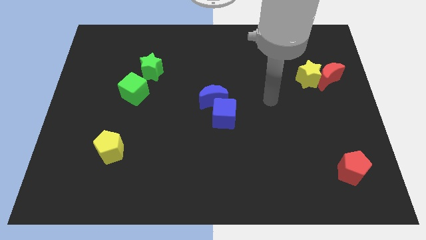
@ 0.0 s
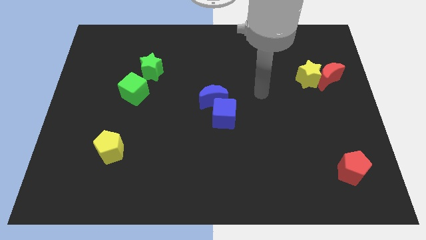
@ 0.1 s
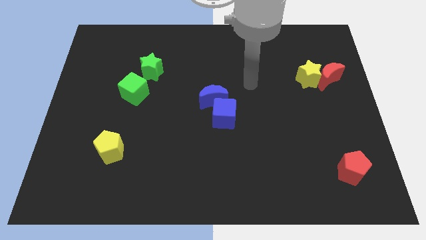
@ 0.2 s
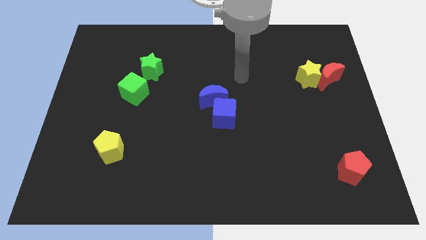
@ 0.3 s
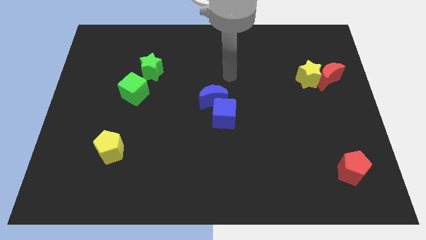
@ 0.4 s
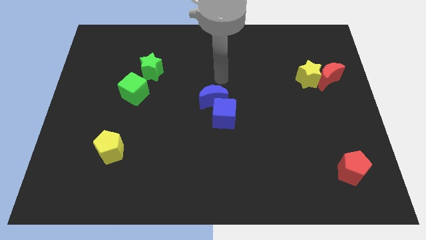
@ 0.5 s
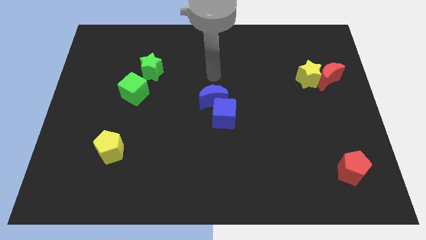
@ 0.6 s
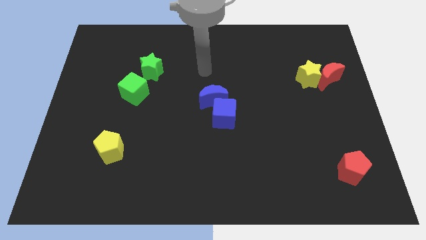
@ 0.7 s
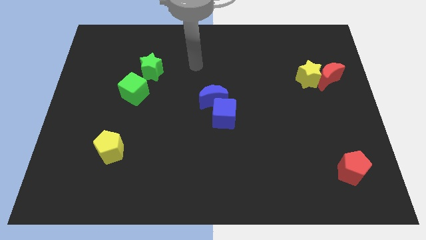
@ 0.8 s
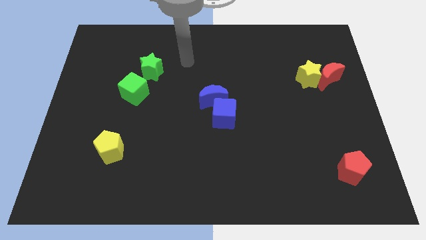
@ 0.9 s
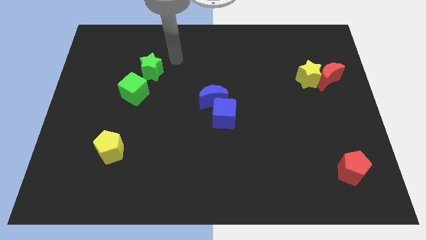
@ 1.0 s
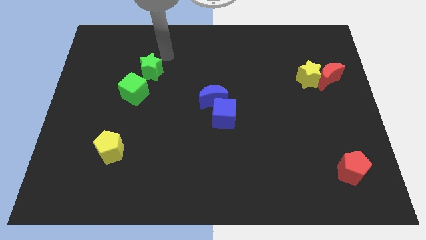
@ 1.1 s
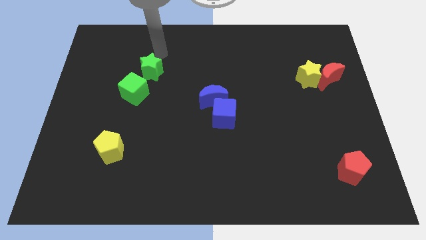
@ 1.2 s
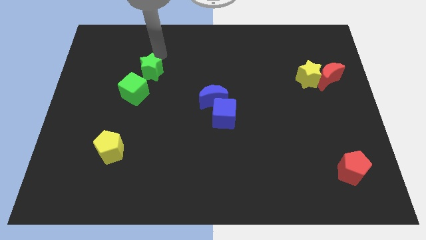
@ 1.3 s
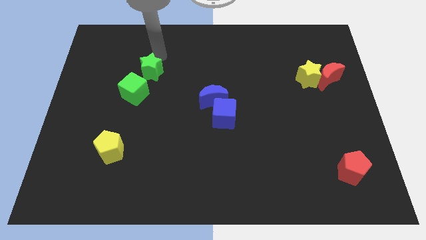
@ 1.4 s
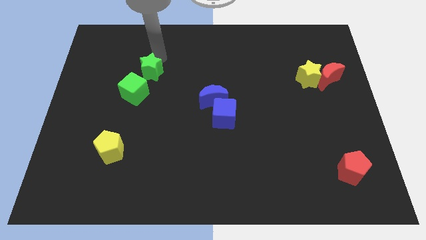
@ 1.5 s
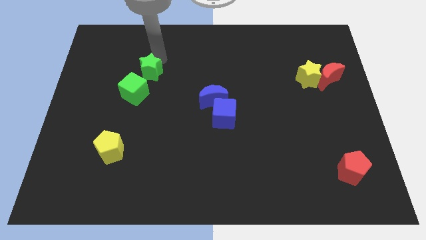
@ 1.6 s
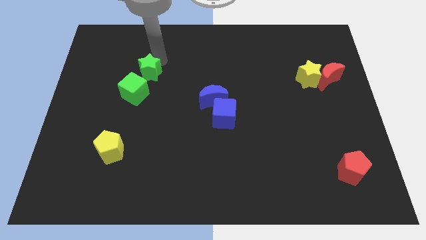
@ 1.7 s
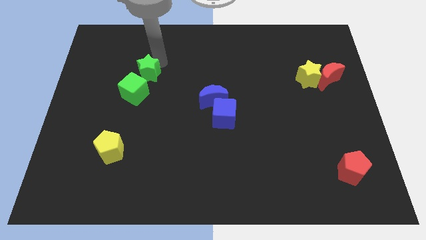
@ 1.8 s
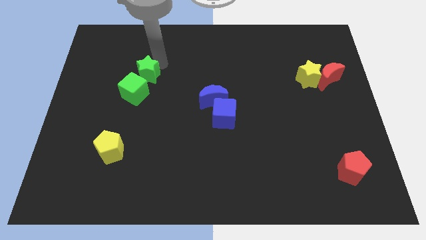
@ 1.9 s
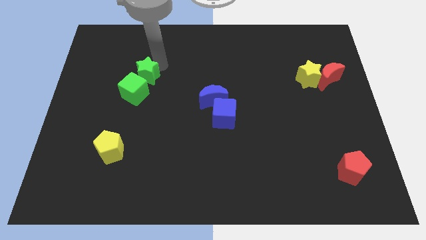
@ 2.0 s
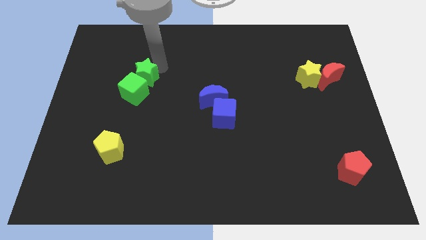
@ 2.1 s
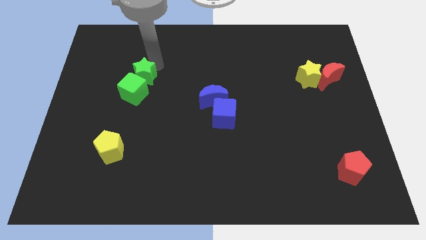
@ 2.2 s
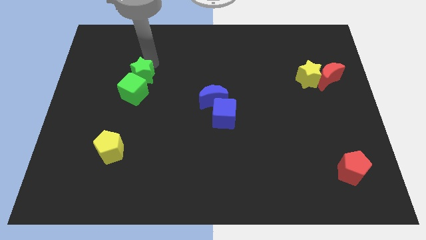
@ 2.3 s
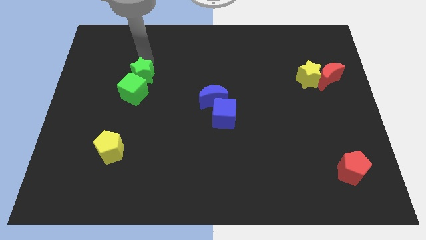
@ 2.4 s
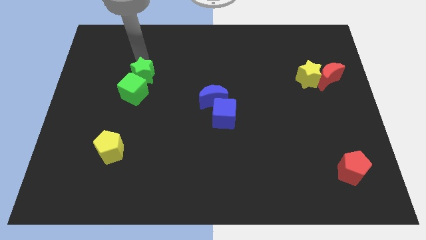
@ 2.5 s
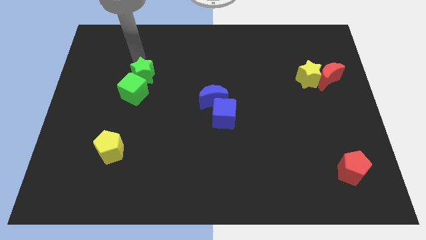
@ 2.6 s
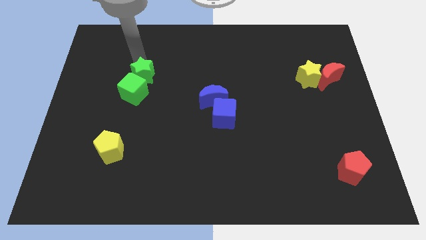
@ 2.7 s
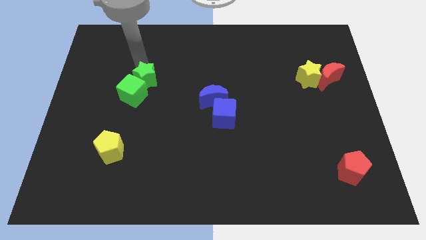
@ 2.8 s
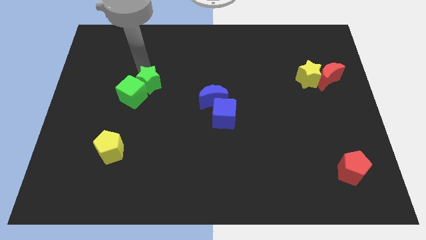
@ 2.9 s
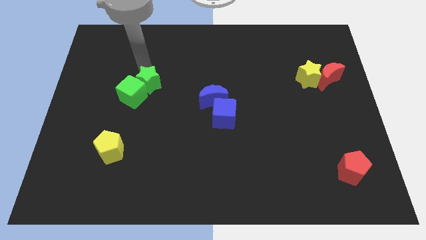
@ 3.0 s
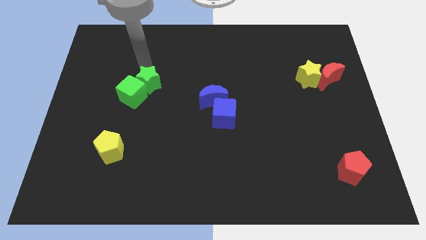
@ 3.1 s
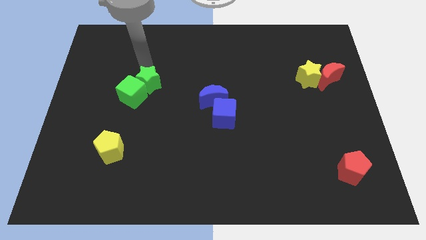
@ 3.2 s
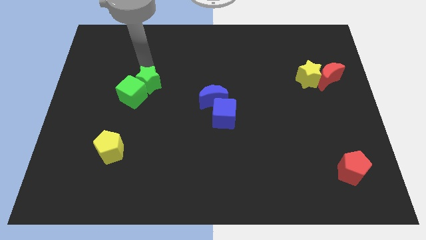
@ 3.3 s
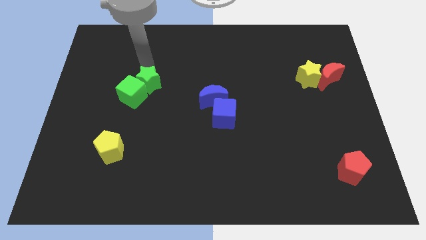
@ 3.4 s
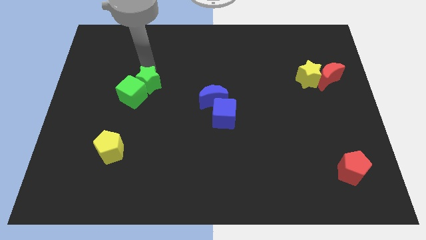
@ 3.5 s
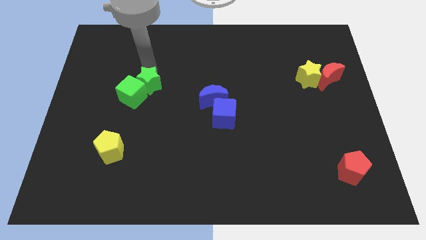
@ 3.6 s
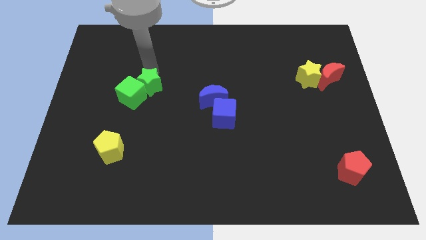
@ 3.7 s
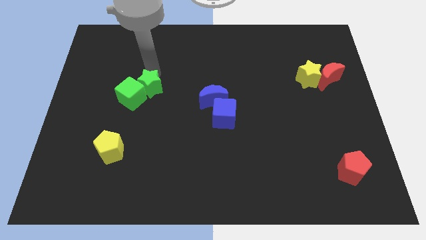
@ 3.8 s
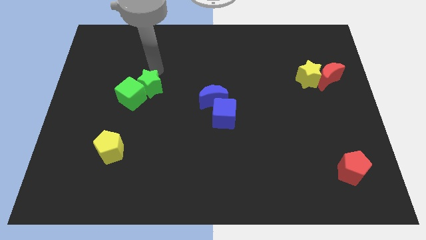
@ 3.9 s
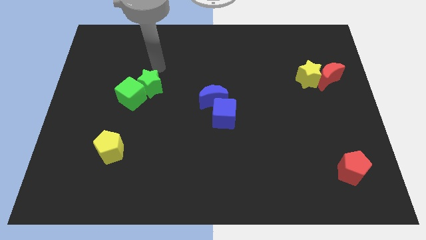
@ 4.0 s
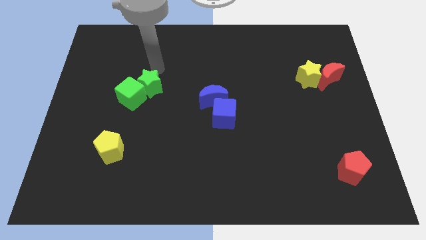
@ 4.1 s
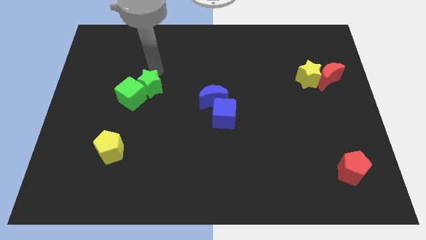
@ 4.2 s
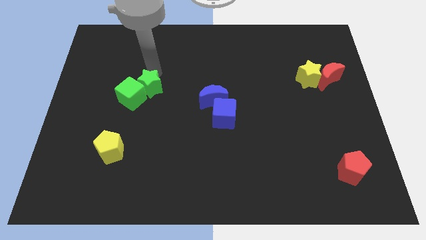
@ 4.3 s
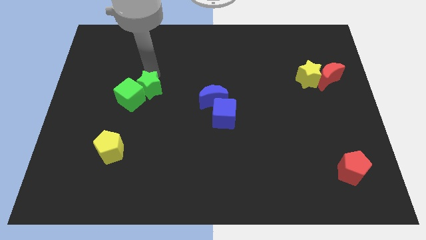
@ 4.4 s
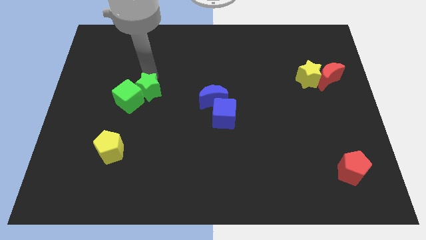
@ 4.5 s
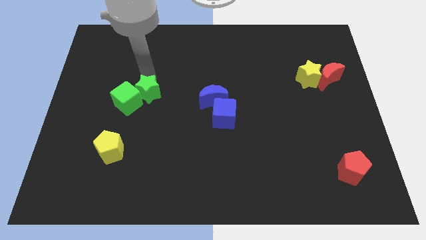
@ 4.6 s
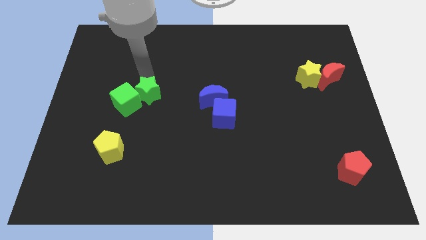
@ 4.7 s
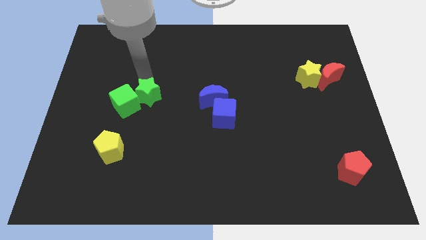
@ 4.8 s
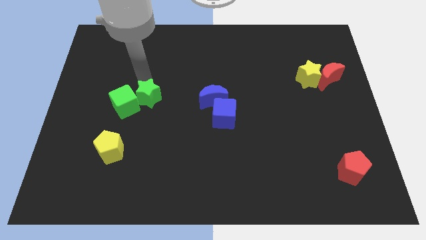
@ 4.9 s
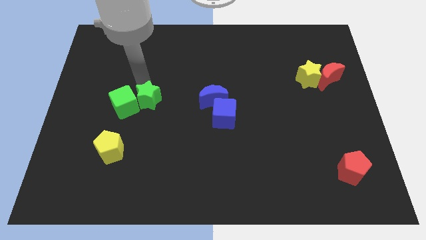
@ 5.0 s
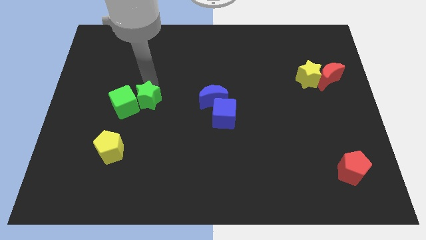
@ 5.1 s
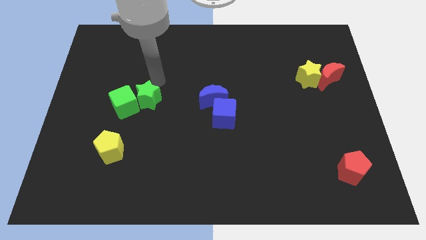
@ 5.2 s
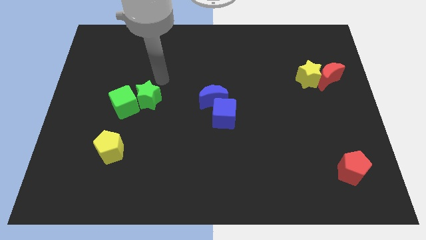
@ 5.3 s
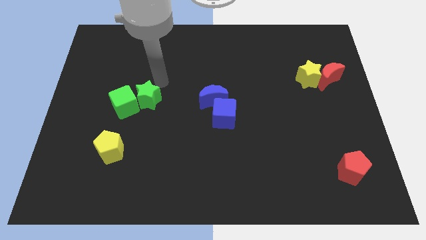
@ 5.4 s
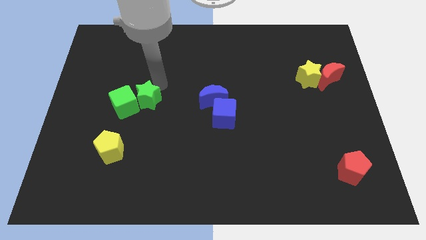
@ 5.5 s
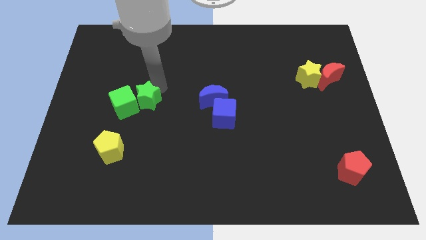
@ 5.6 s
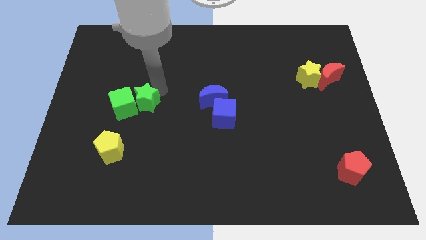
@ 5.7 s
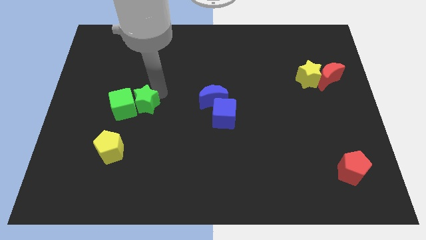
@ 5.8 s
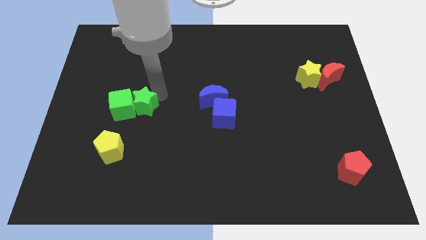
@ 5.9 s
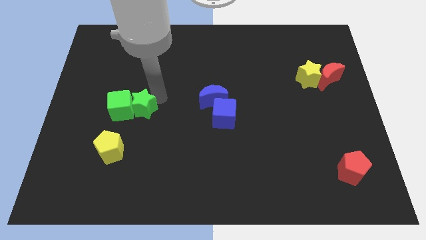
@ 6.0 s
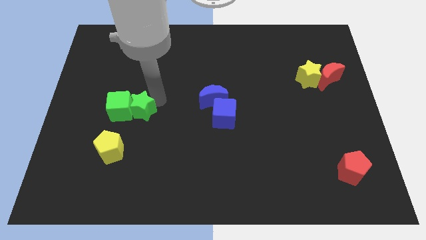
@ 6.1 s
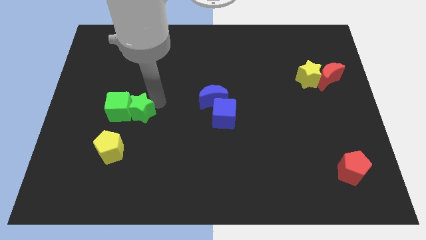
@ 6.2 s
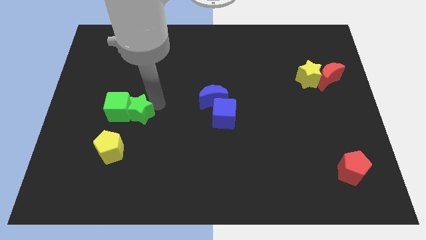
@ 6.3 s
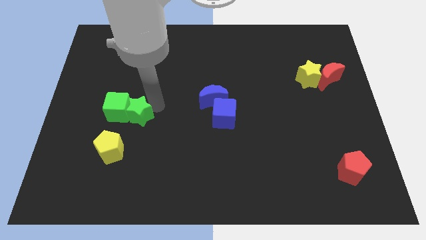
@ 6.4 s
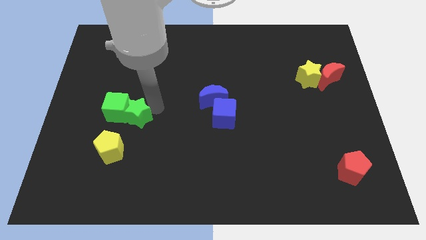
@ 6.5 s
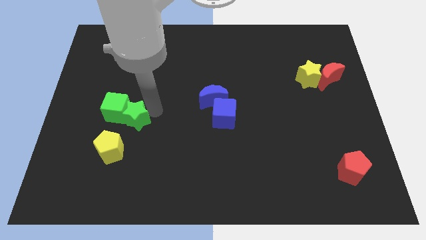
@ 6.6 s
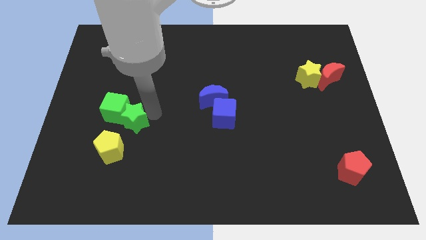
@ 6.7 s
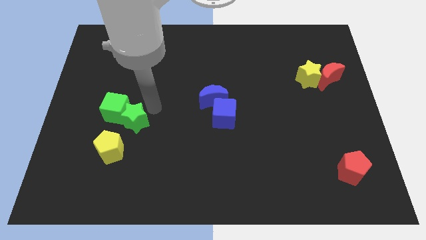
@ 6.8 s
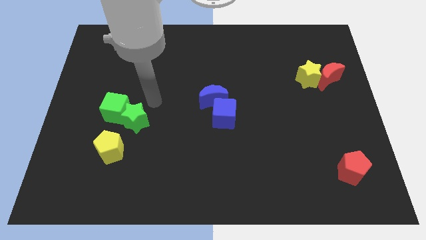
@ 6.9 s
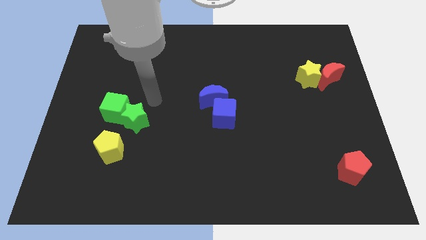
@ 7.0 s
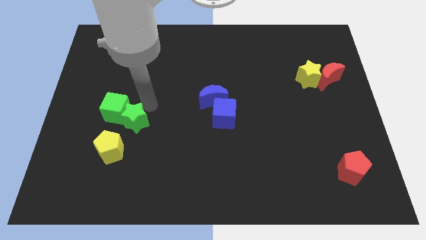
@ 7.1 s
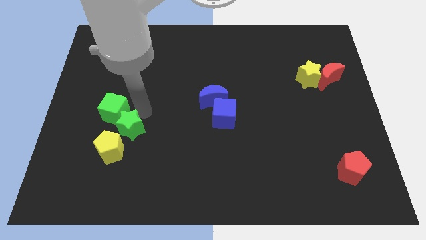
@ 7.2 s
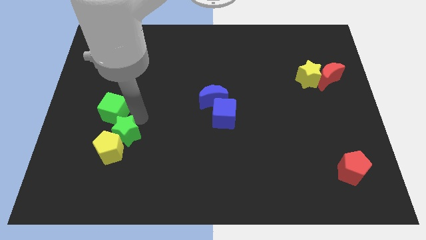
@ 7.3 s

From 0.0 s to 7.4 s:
slide the green star to the yellow pentagon
